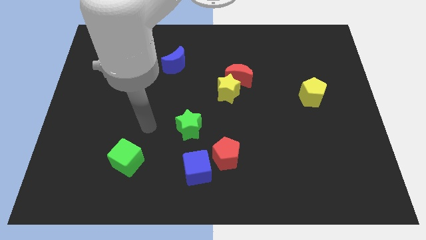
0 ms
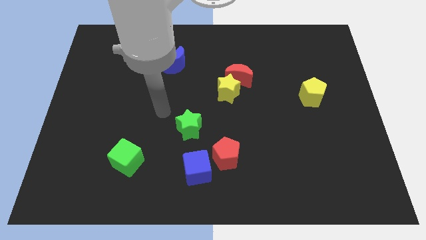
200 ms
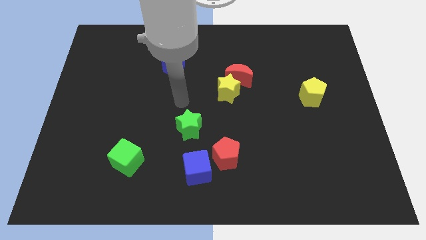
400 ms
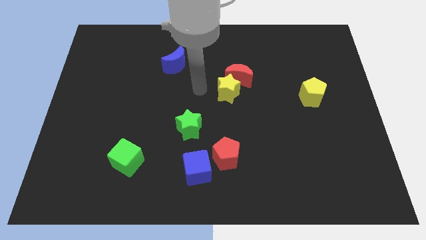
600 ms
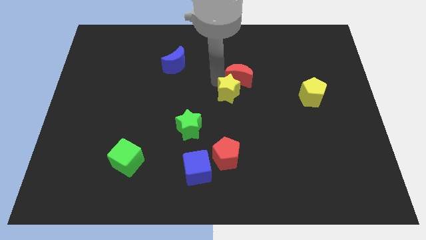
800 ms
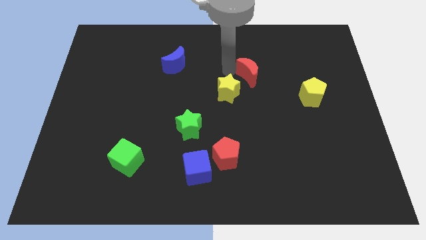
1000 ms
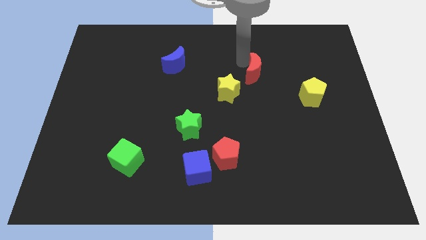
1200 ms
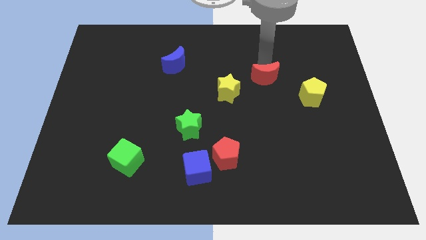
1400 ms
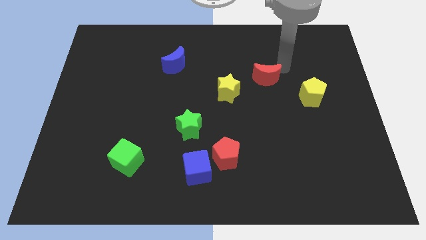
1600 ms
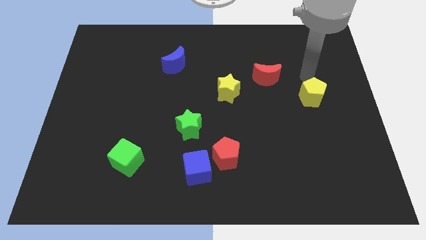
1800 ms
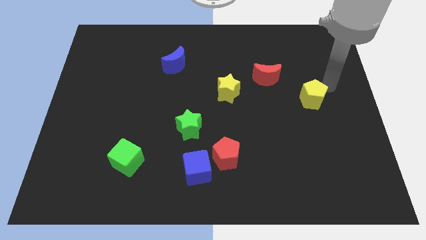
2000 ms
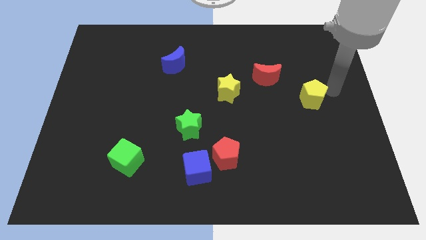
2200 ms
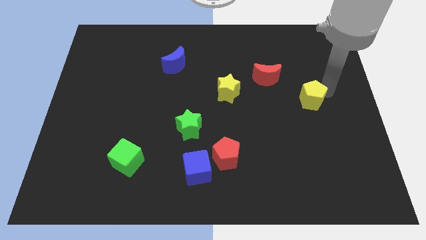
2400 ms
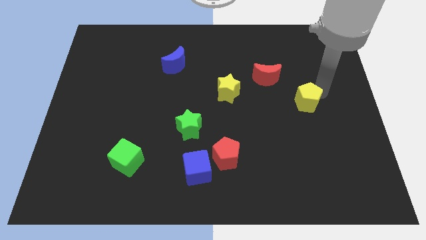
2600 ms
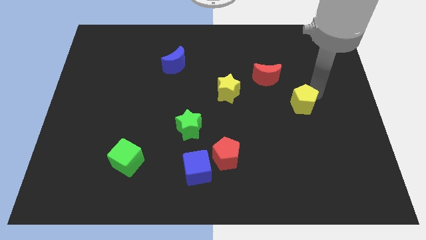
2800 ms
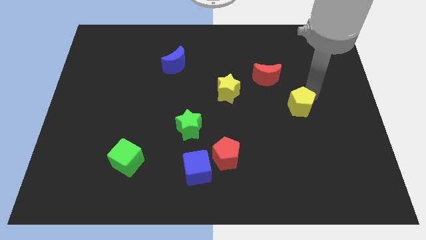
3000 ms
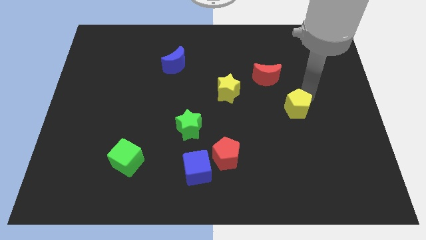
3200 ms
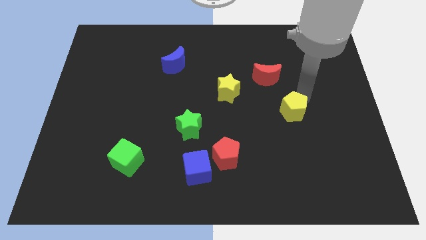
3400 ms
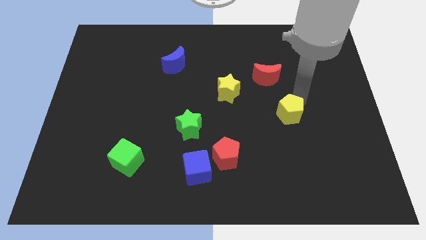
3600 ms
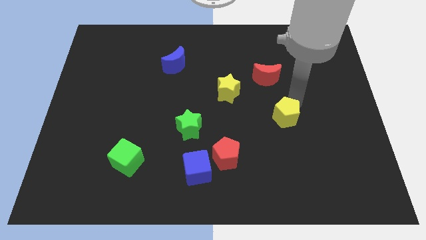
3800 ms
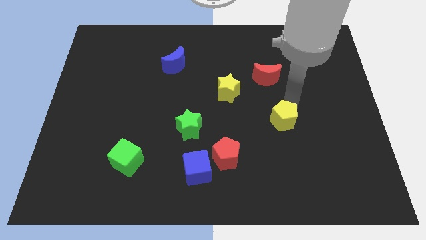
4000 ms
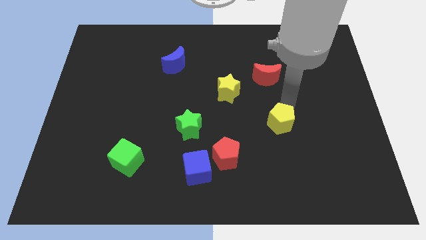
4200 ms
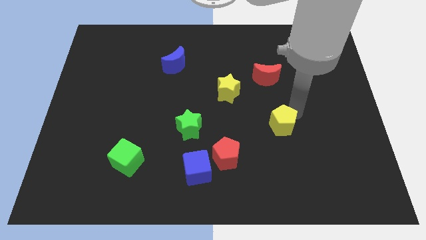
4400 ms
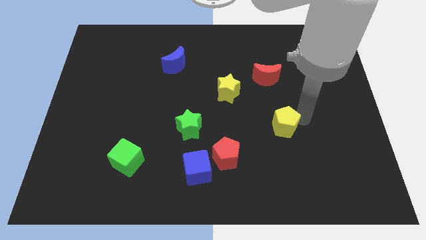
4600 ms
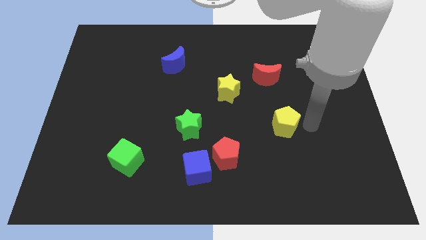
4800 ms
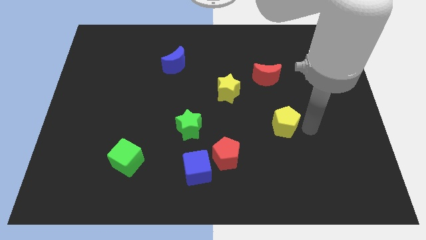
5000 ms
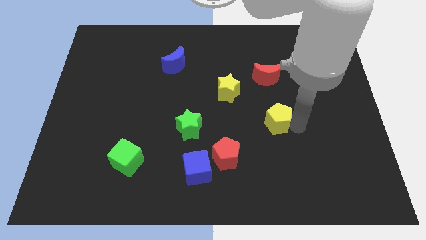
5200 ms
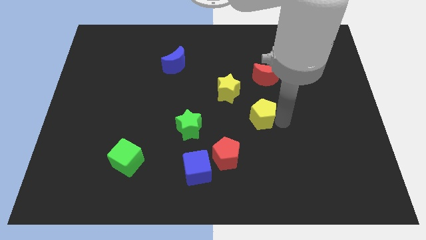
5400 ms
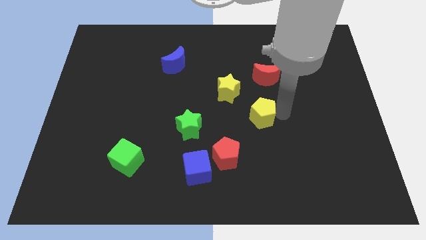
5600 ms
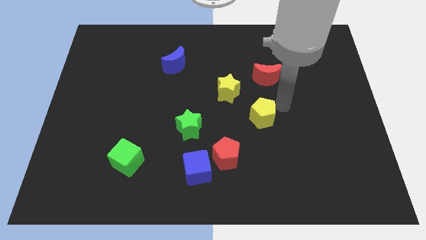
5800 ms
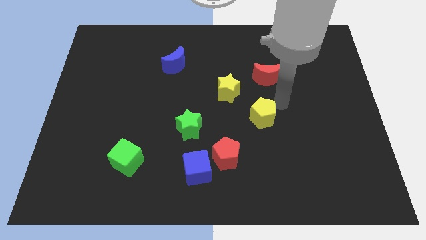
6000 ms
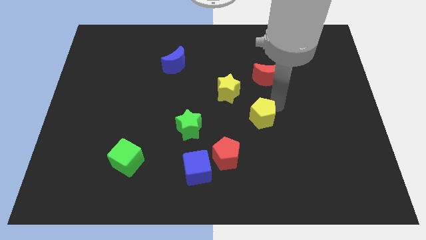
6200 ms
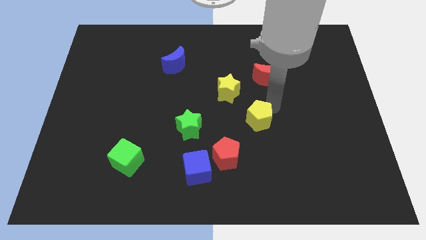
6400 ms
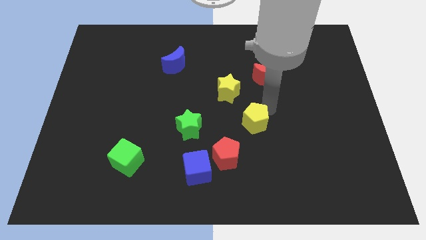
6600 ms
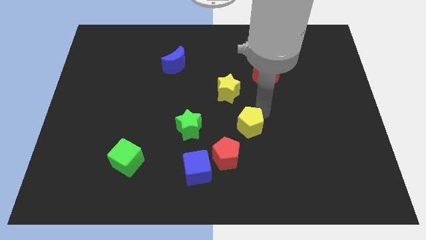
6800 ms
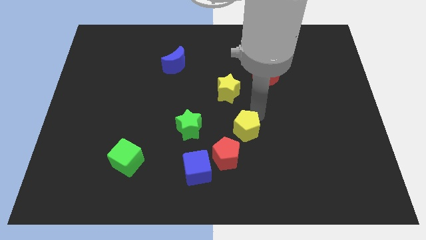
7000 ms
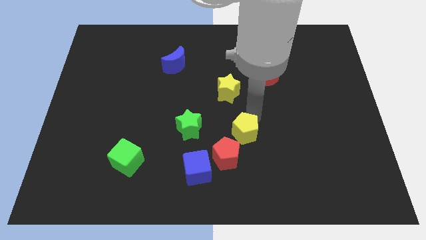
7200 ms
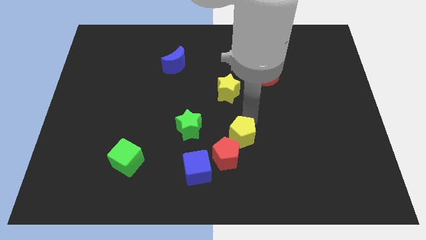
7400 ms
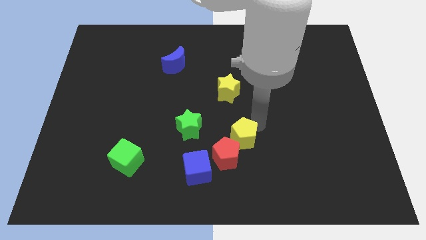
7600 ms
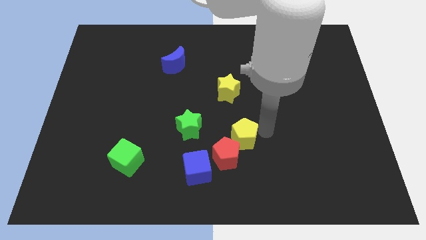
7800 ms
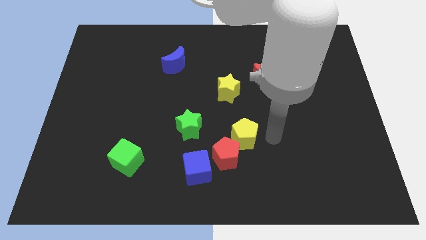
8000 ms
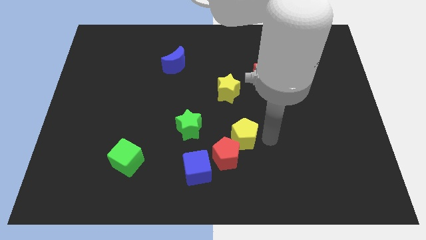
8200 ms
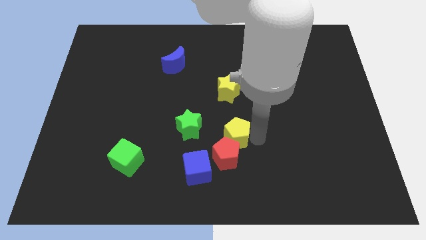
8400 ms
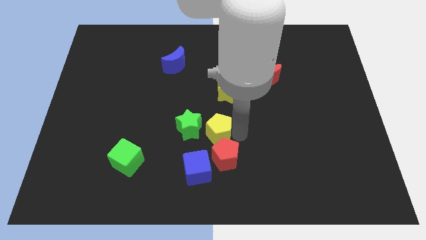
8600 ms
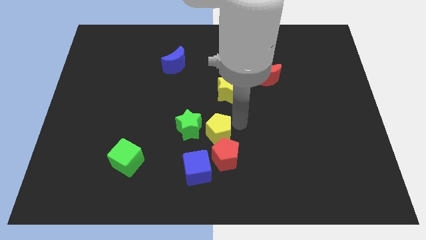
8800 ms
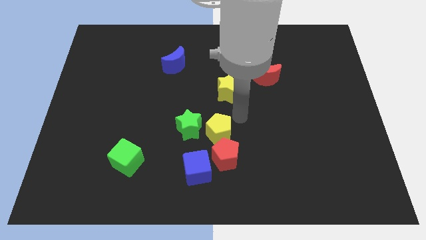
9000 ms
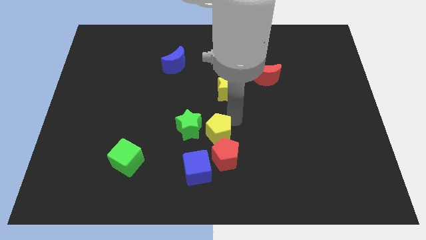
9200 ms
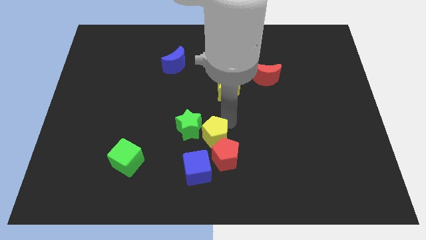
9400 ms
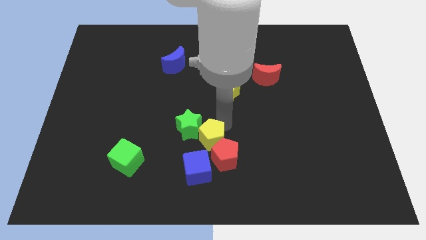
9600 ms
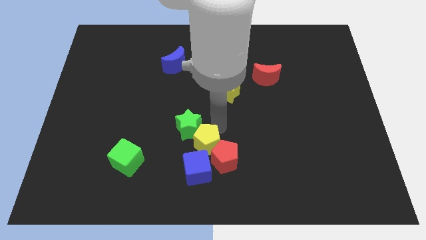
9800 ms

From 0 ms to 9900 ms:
move the yellow pentagon left of the red pentagon

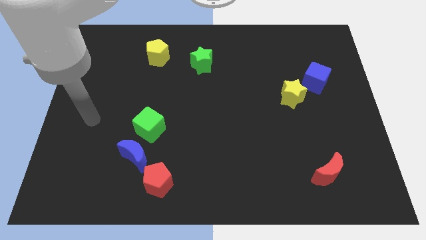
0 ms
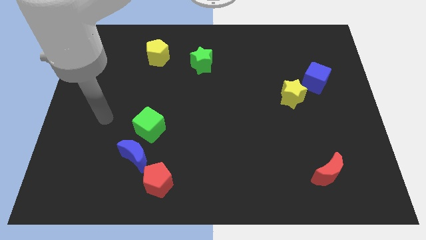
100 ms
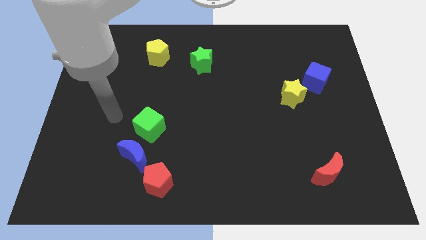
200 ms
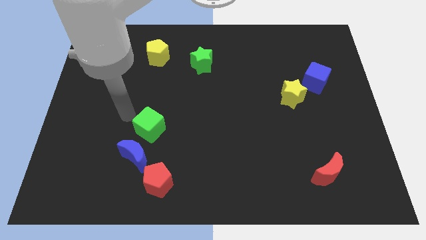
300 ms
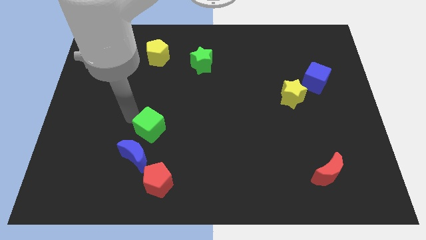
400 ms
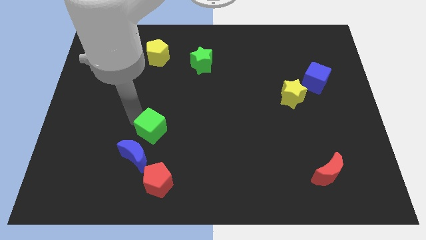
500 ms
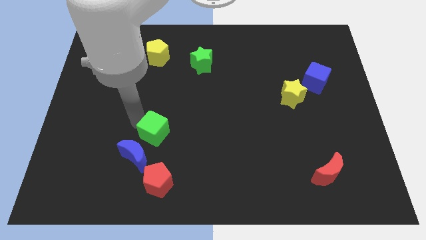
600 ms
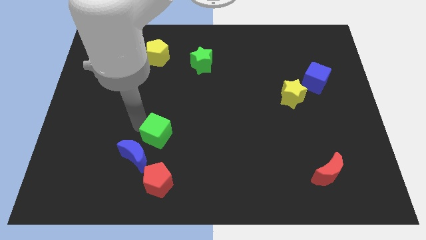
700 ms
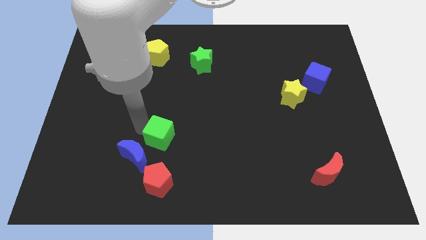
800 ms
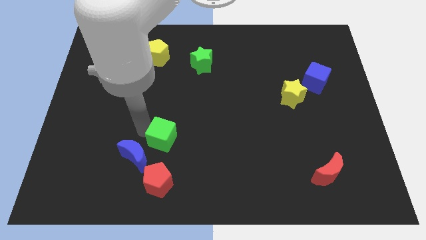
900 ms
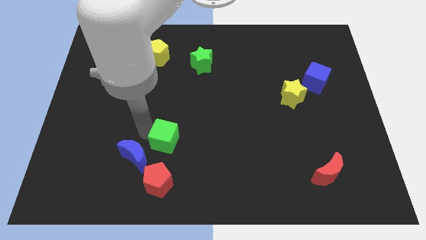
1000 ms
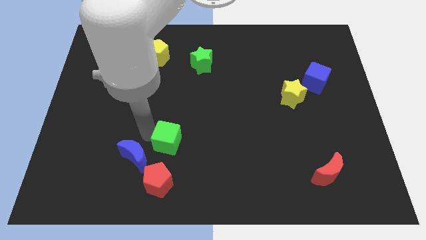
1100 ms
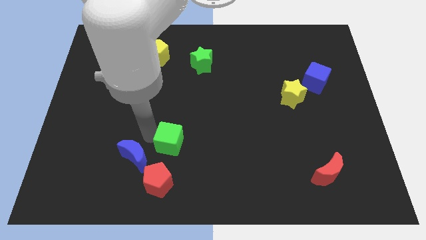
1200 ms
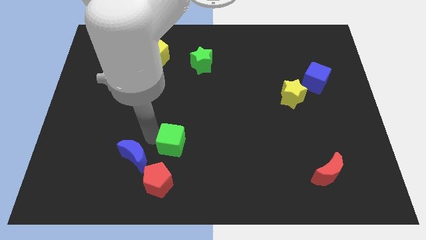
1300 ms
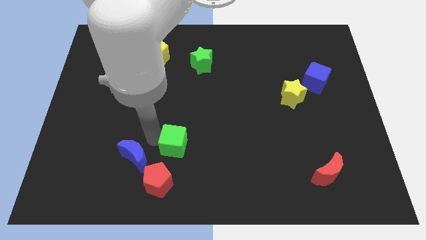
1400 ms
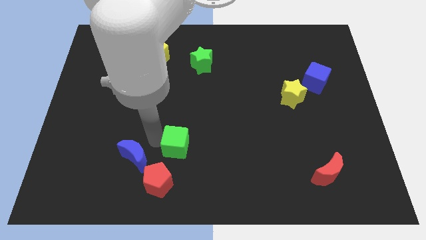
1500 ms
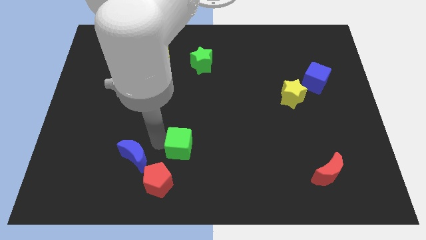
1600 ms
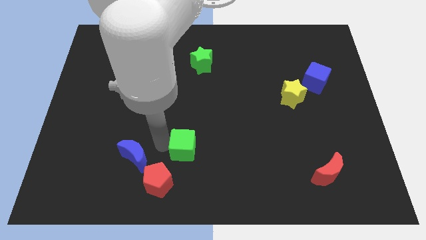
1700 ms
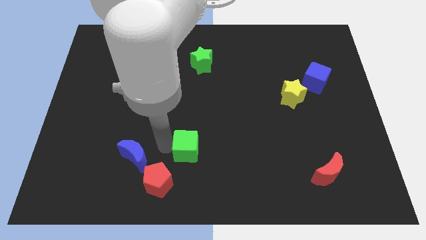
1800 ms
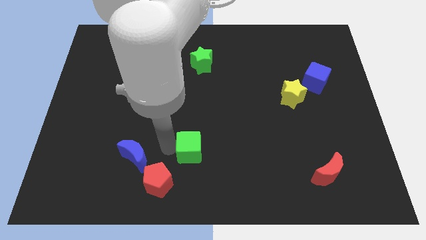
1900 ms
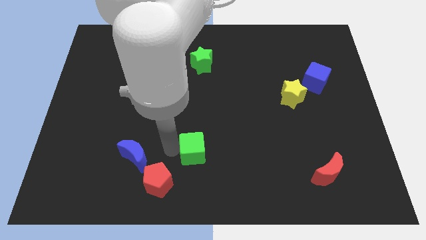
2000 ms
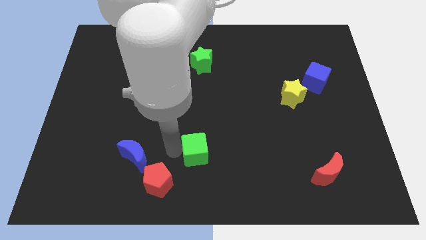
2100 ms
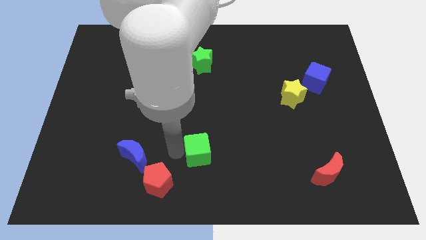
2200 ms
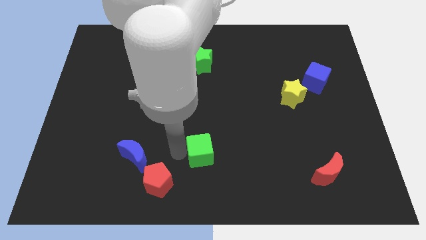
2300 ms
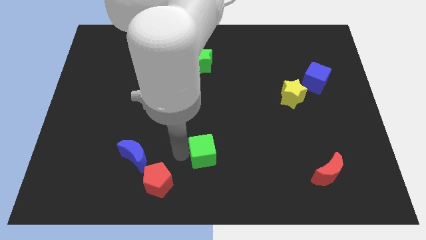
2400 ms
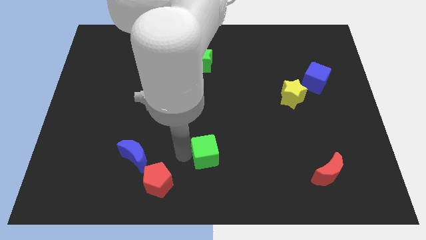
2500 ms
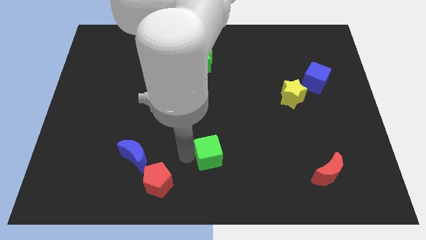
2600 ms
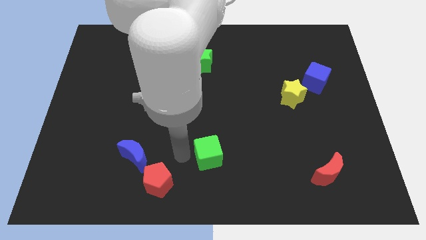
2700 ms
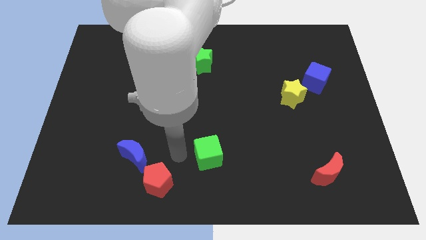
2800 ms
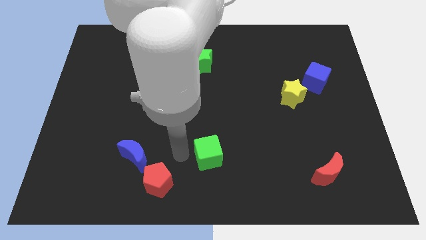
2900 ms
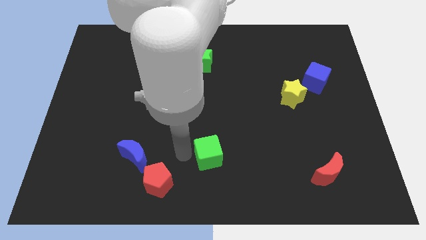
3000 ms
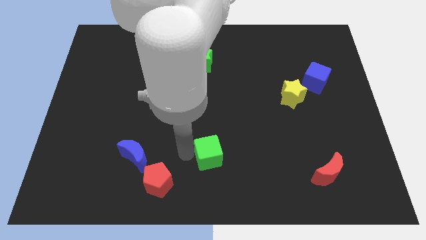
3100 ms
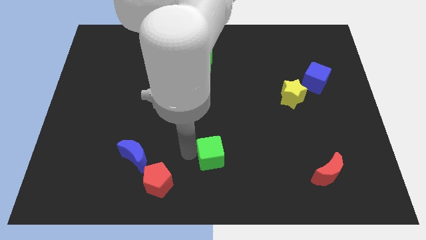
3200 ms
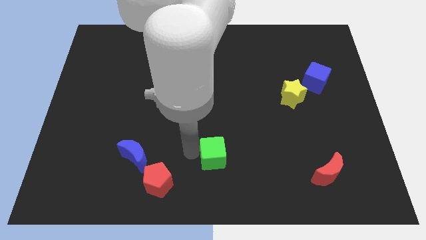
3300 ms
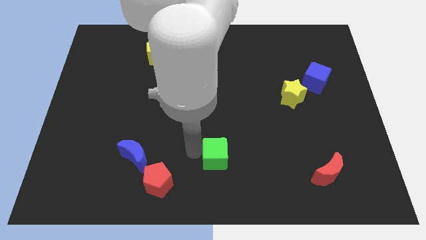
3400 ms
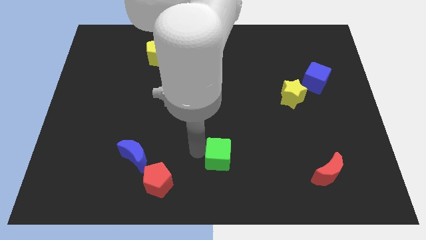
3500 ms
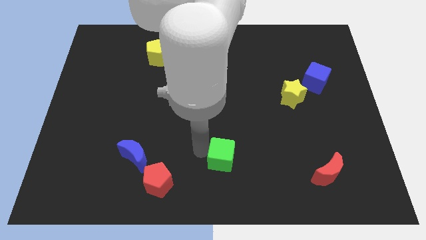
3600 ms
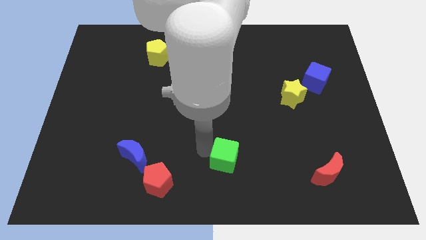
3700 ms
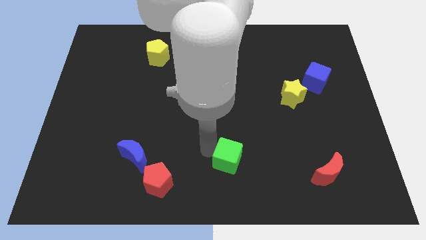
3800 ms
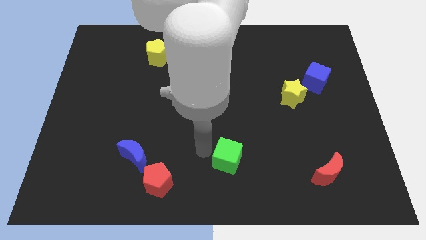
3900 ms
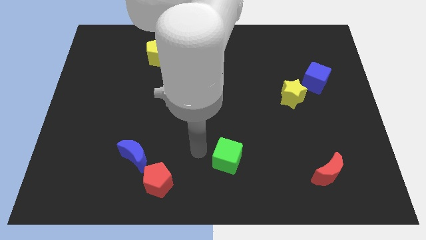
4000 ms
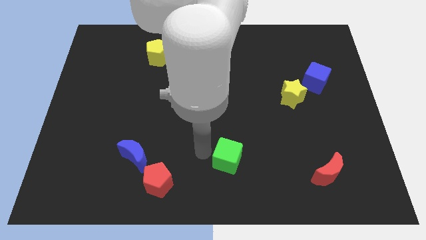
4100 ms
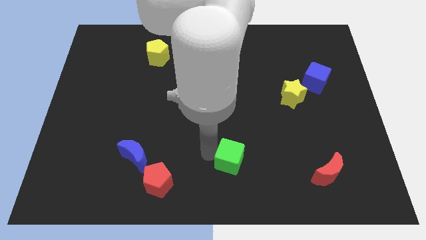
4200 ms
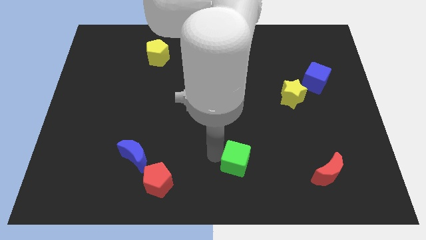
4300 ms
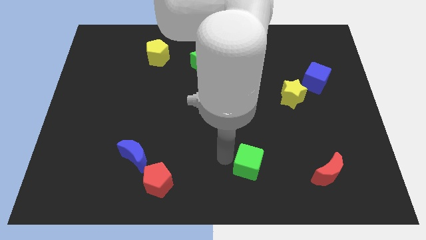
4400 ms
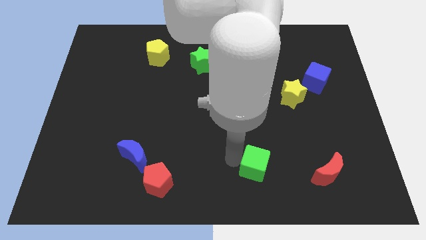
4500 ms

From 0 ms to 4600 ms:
put the green cube to the left of the red moon
